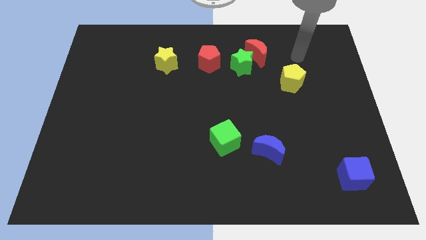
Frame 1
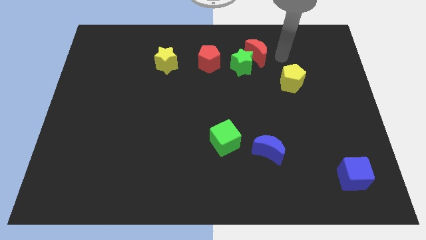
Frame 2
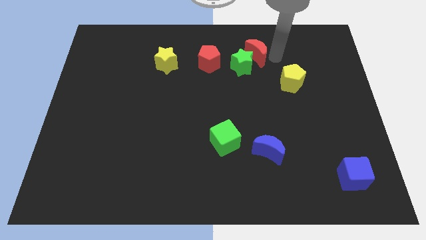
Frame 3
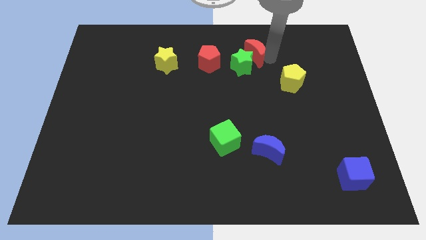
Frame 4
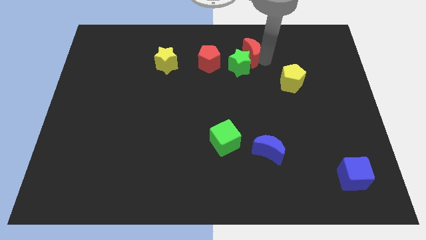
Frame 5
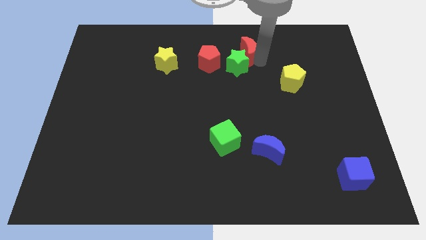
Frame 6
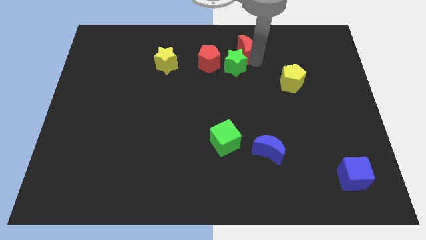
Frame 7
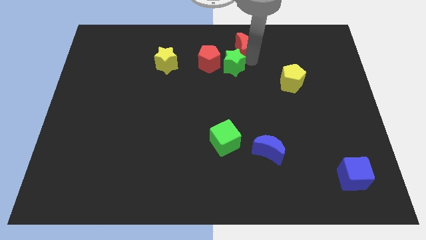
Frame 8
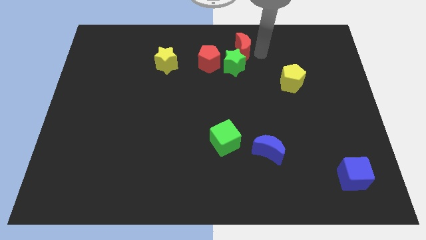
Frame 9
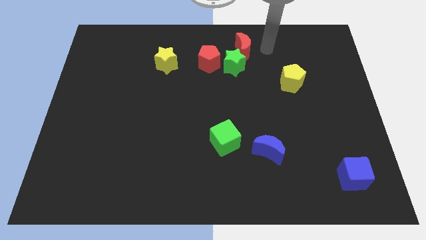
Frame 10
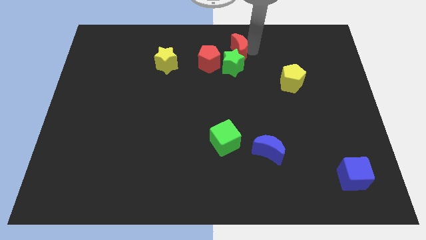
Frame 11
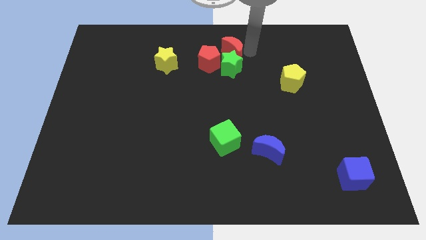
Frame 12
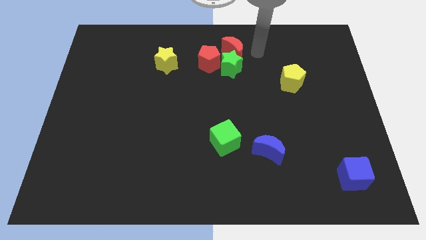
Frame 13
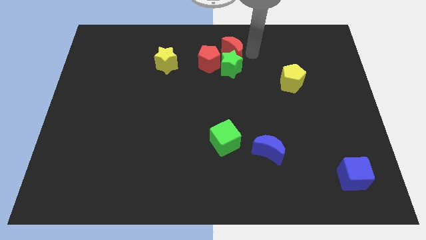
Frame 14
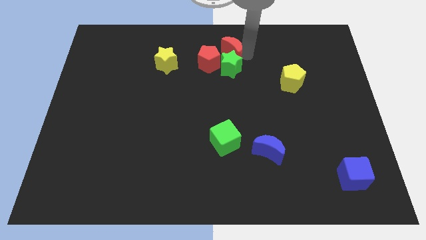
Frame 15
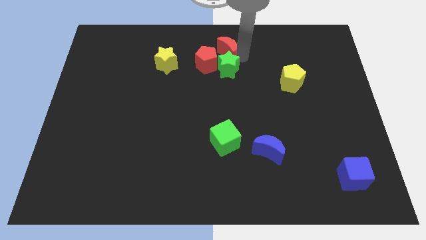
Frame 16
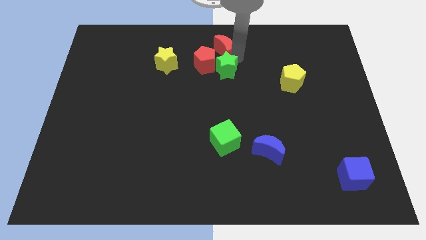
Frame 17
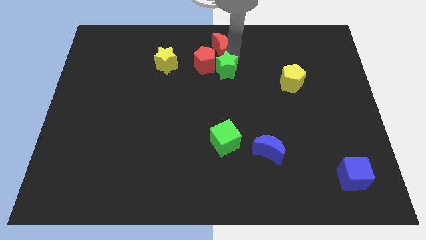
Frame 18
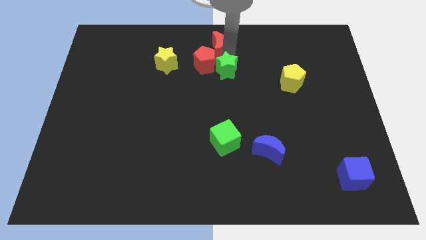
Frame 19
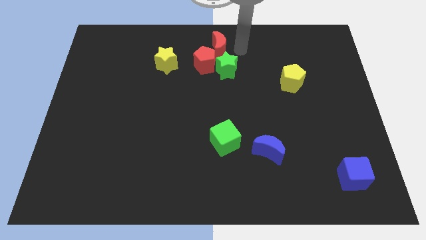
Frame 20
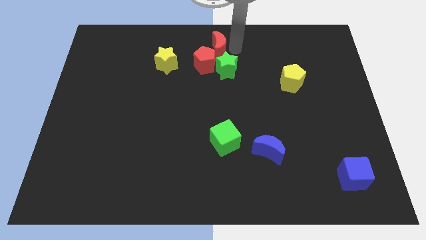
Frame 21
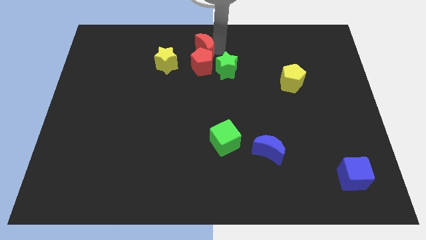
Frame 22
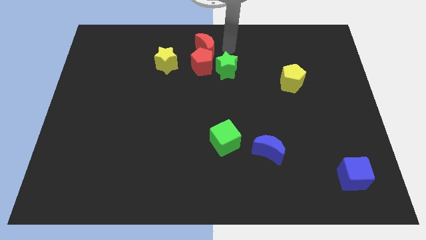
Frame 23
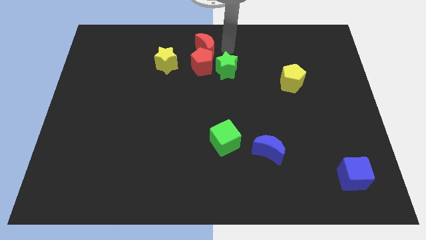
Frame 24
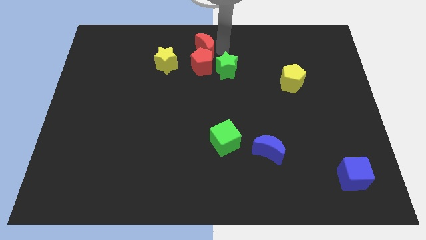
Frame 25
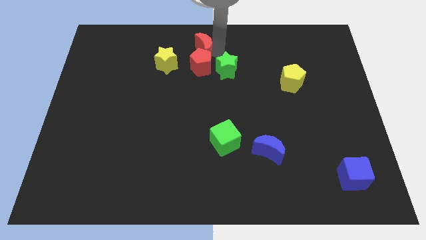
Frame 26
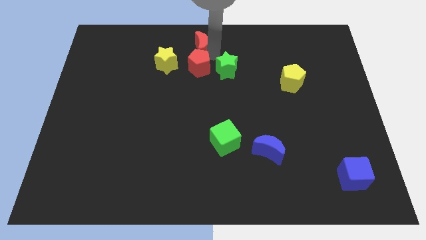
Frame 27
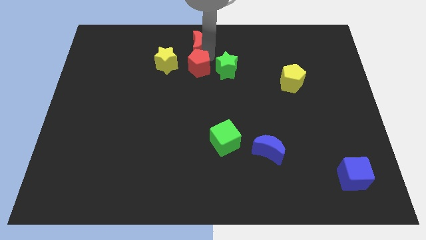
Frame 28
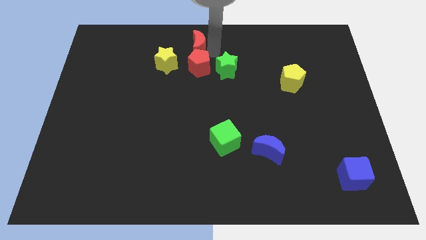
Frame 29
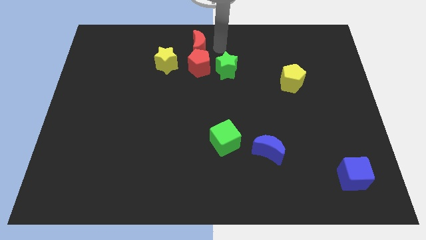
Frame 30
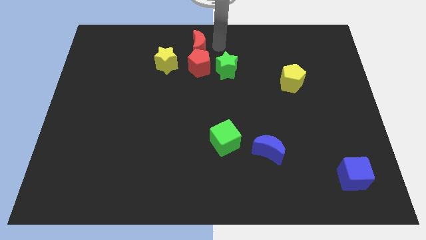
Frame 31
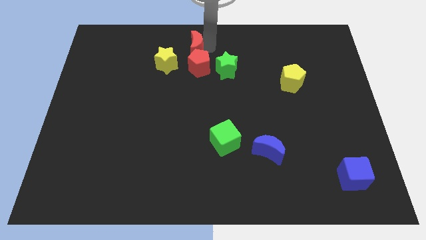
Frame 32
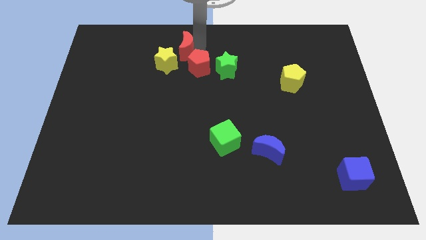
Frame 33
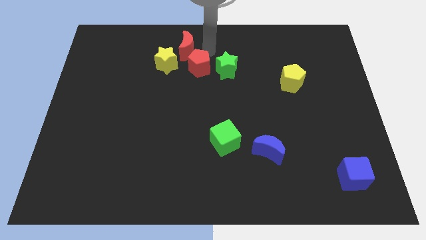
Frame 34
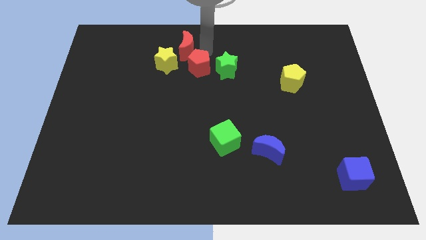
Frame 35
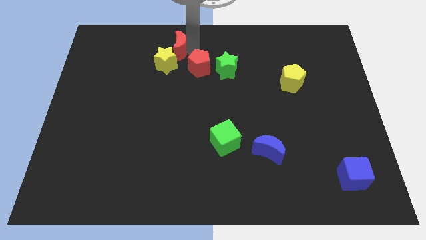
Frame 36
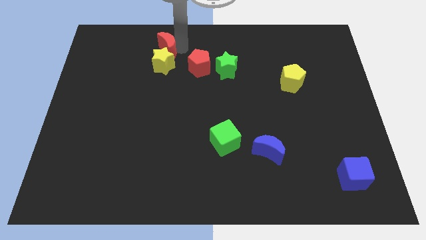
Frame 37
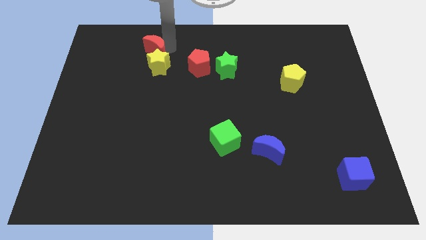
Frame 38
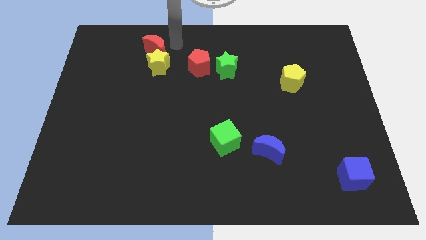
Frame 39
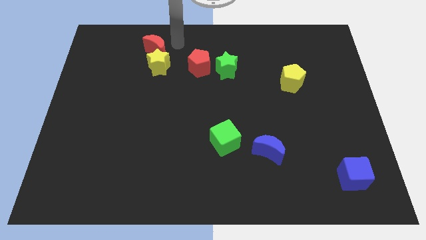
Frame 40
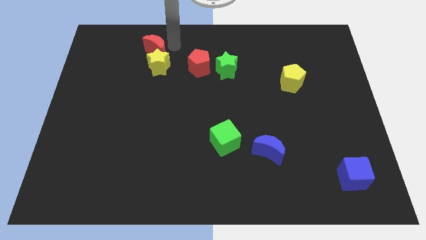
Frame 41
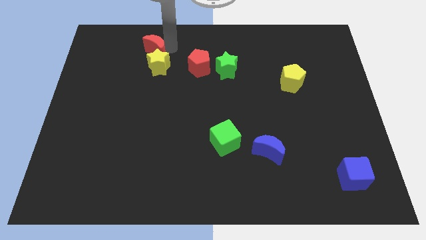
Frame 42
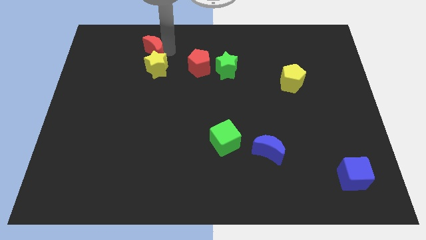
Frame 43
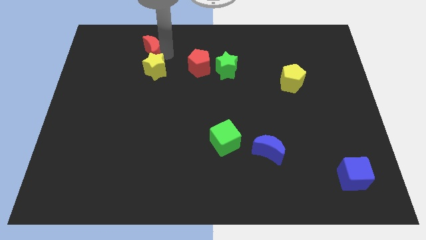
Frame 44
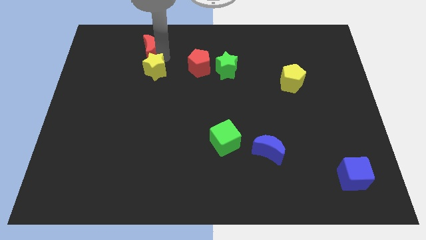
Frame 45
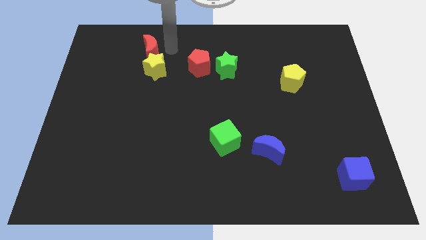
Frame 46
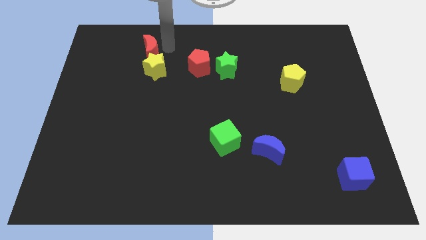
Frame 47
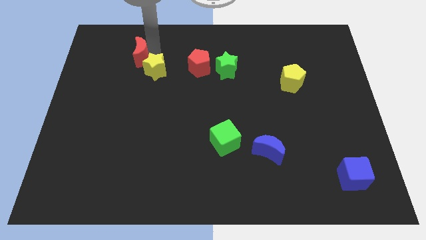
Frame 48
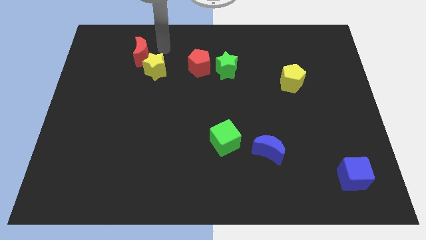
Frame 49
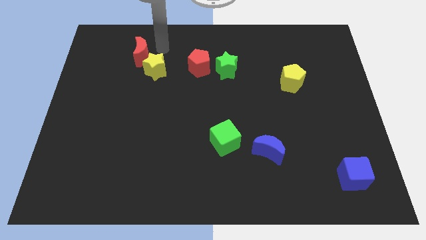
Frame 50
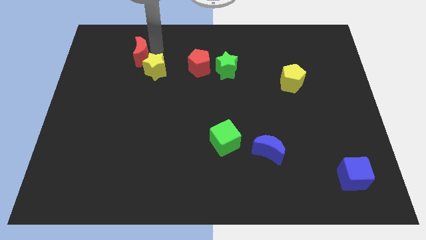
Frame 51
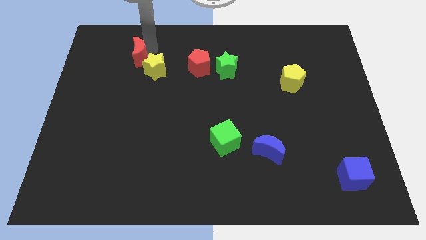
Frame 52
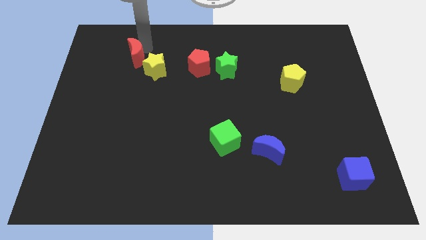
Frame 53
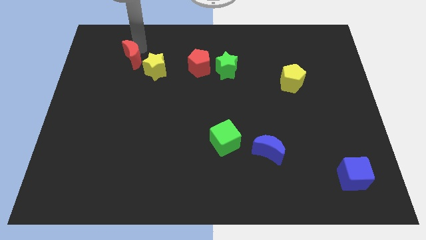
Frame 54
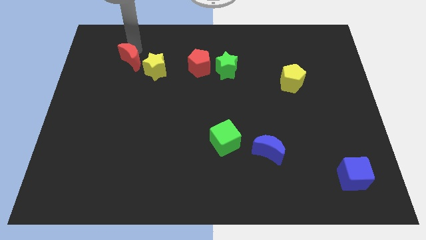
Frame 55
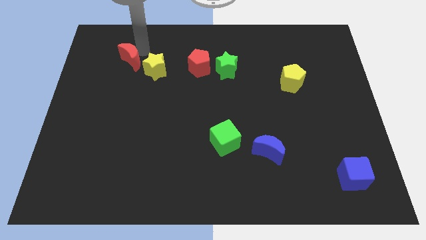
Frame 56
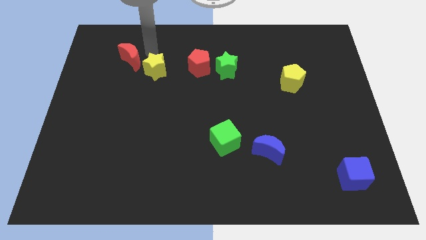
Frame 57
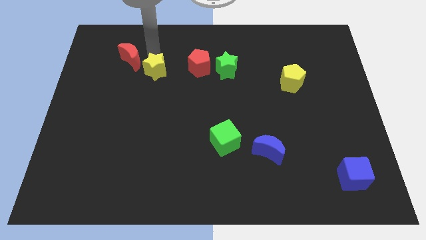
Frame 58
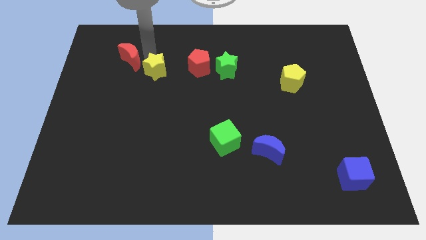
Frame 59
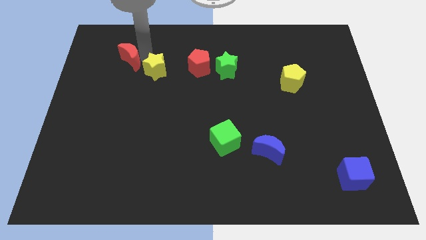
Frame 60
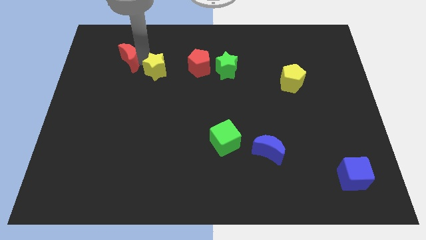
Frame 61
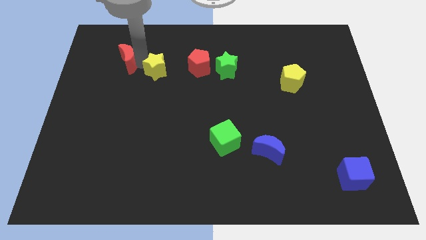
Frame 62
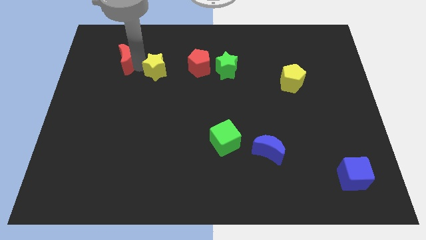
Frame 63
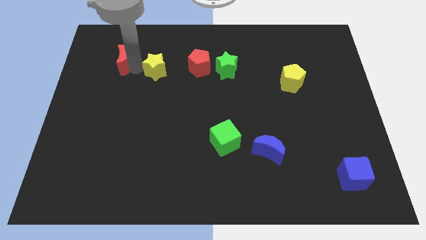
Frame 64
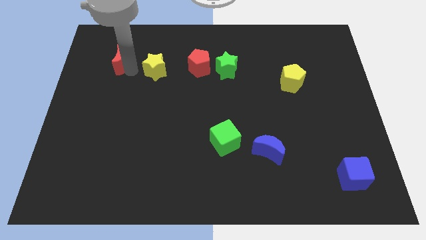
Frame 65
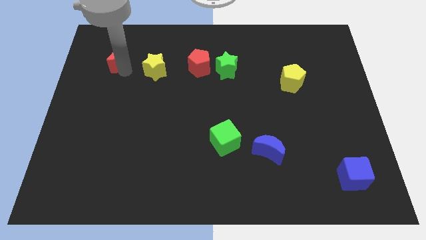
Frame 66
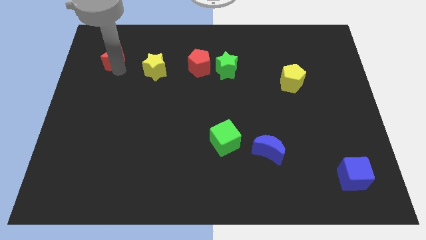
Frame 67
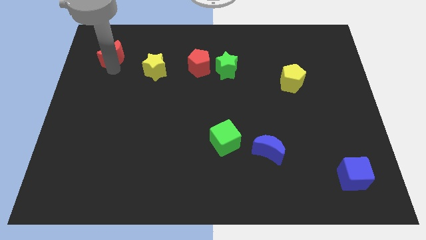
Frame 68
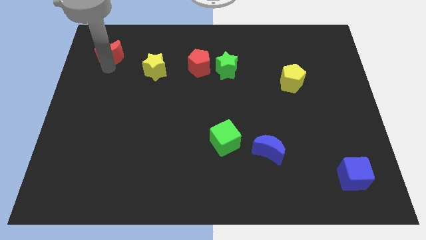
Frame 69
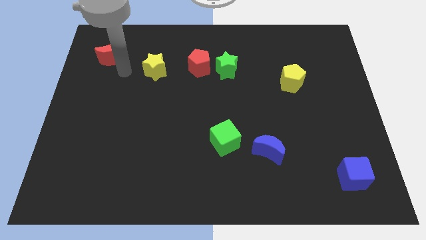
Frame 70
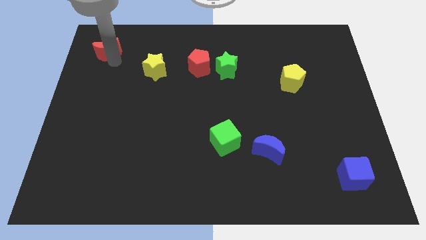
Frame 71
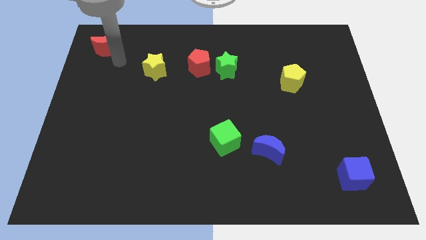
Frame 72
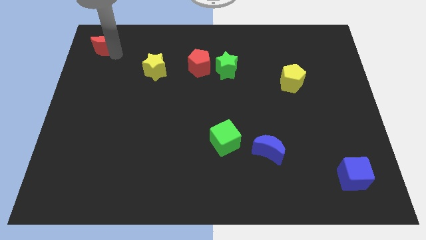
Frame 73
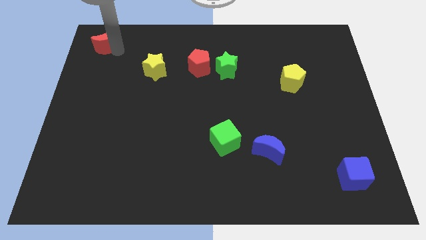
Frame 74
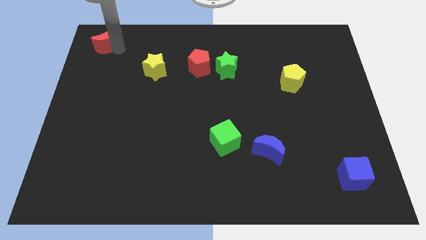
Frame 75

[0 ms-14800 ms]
push the red moon to the upper left corner
